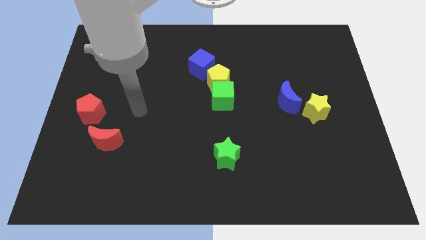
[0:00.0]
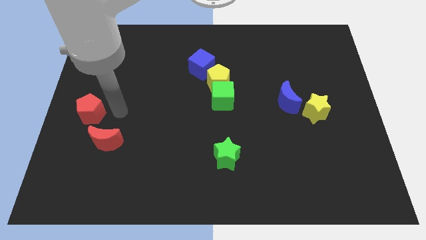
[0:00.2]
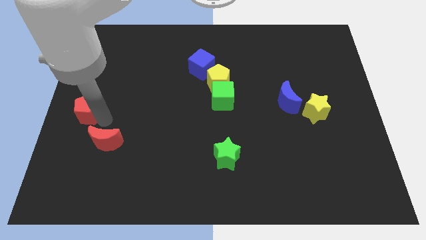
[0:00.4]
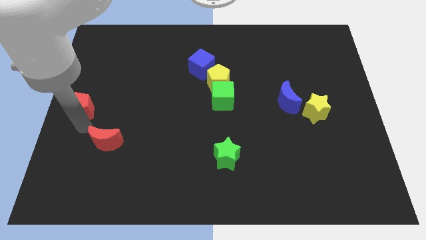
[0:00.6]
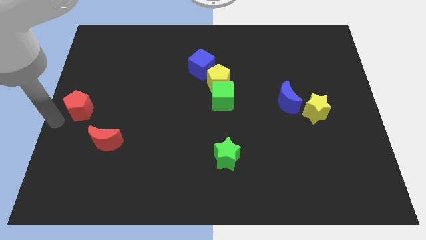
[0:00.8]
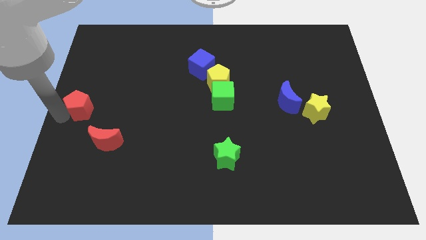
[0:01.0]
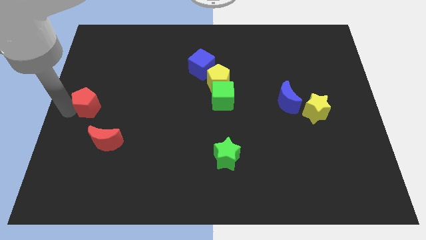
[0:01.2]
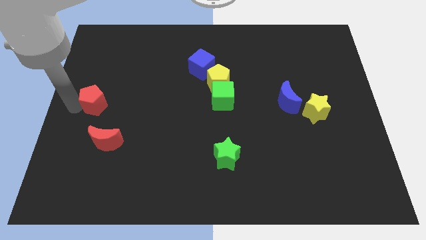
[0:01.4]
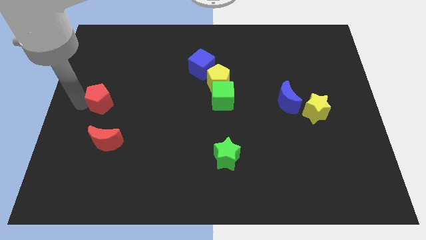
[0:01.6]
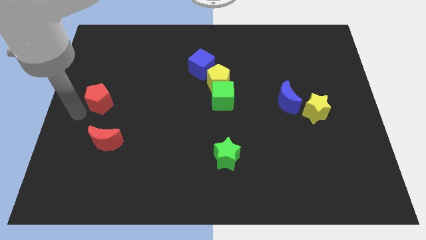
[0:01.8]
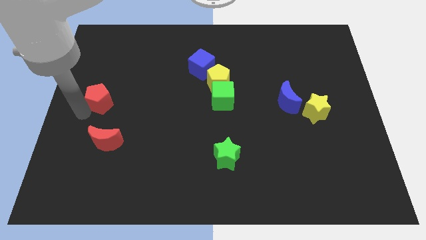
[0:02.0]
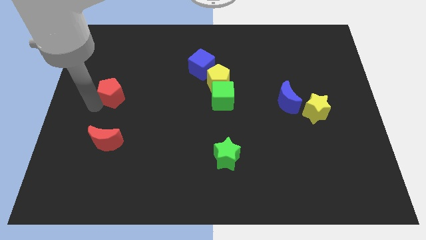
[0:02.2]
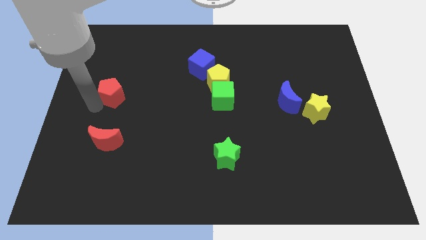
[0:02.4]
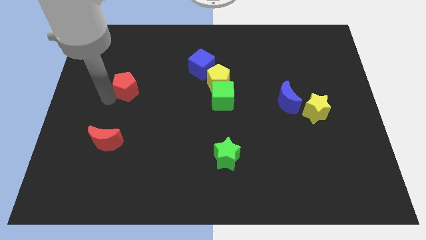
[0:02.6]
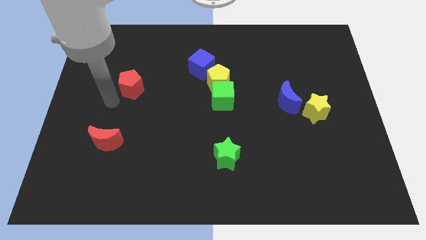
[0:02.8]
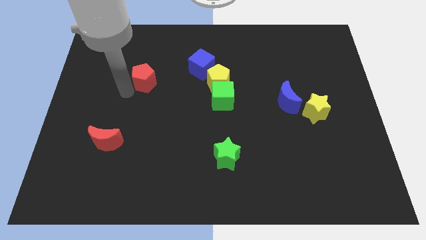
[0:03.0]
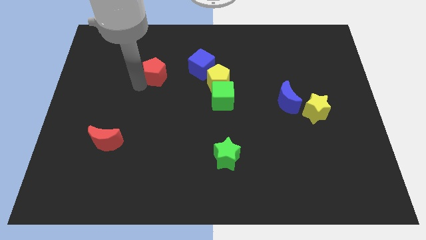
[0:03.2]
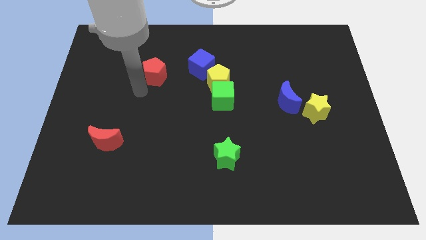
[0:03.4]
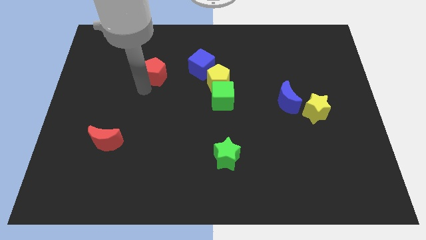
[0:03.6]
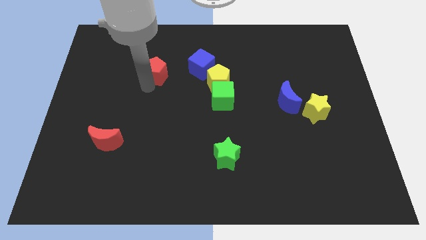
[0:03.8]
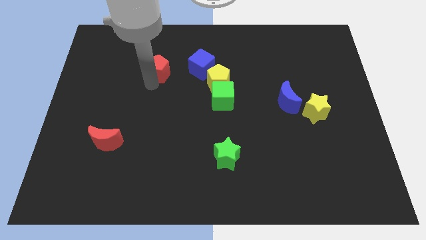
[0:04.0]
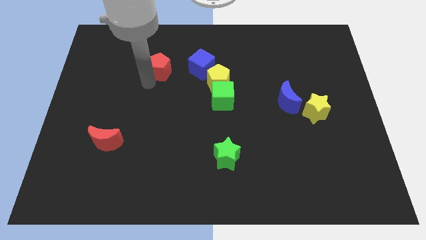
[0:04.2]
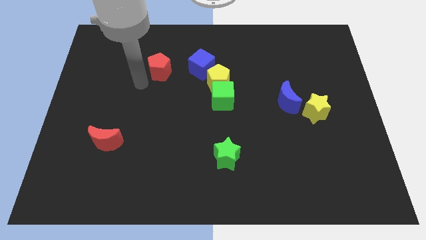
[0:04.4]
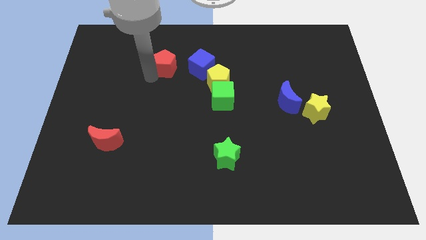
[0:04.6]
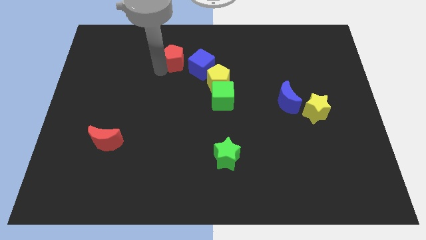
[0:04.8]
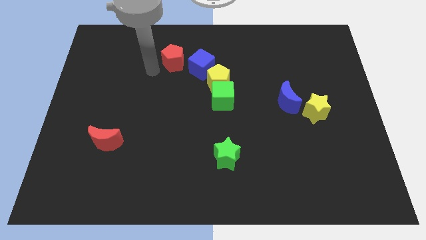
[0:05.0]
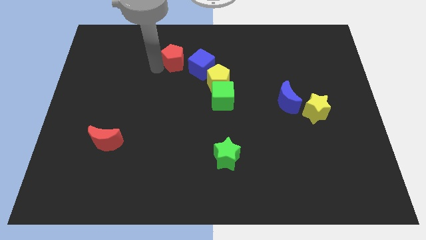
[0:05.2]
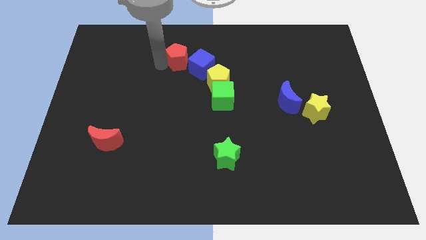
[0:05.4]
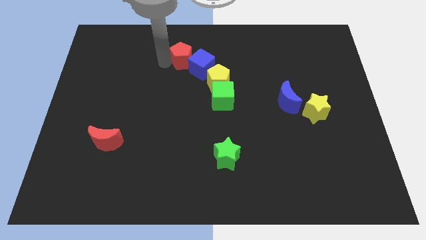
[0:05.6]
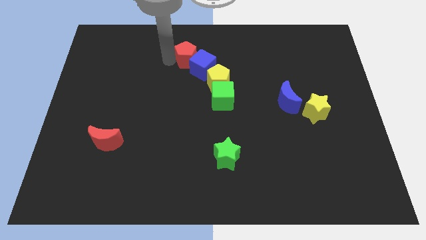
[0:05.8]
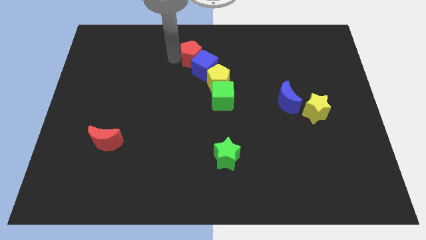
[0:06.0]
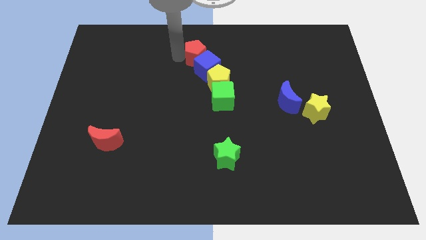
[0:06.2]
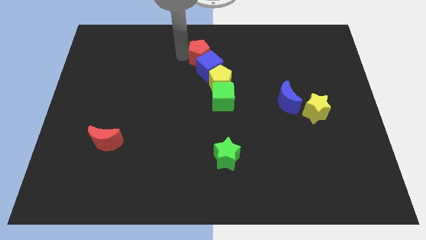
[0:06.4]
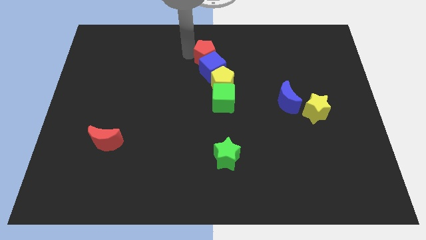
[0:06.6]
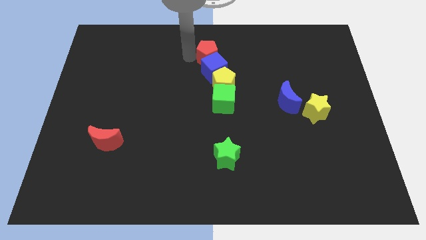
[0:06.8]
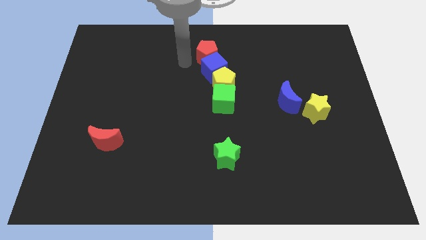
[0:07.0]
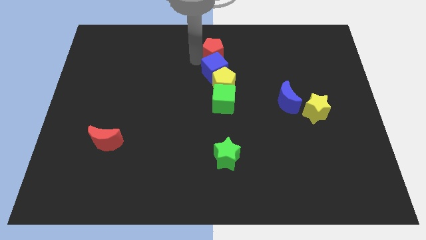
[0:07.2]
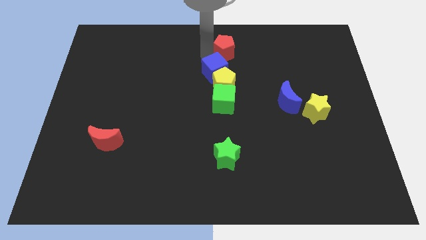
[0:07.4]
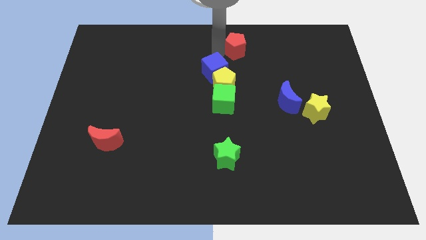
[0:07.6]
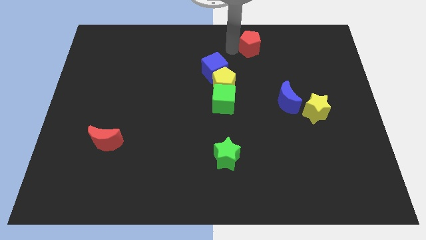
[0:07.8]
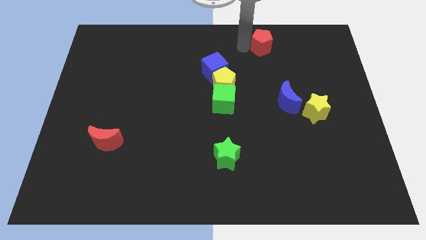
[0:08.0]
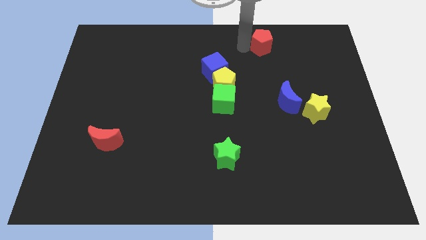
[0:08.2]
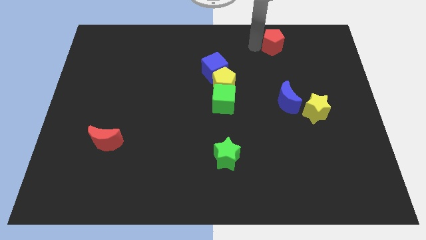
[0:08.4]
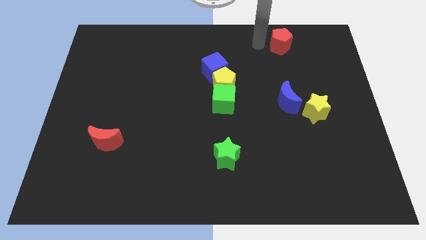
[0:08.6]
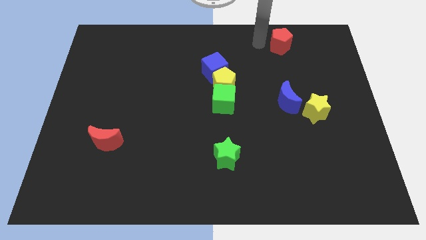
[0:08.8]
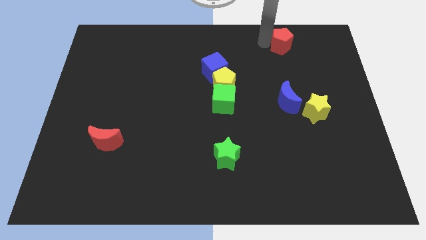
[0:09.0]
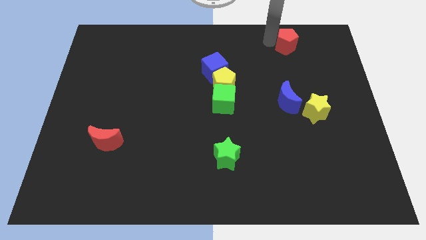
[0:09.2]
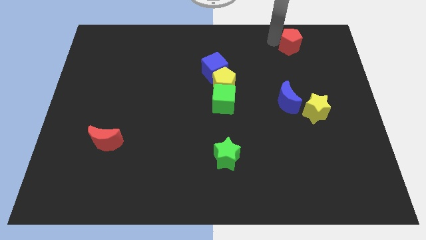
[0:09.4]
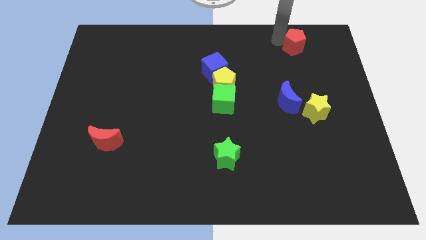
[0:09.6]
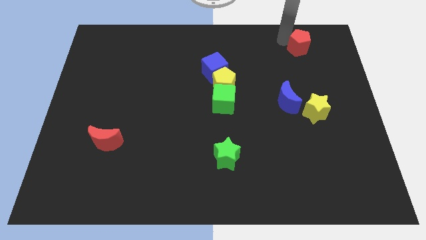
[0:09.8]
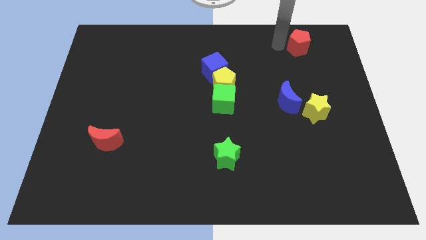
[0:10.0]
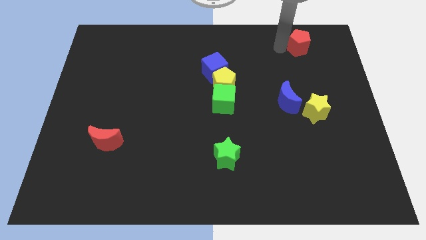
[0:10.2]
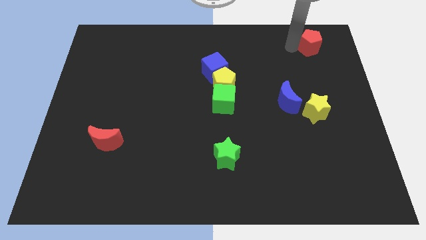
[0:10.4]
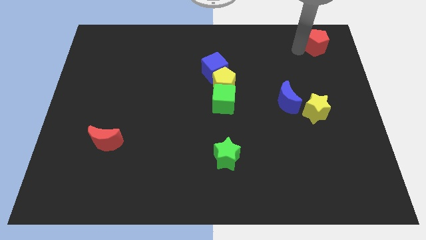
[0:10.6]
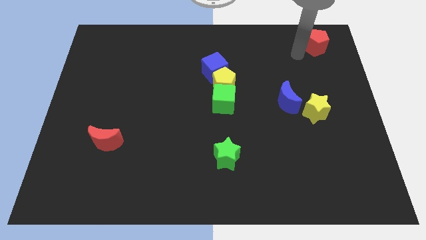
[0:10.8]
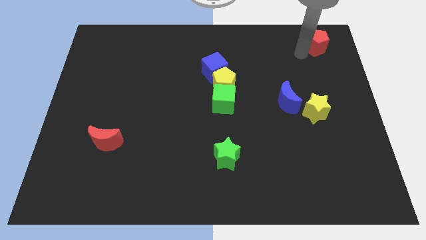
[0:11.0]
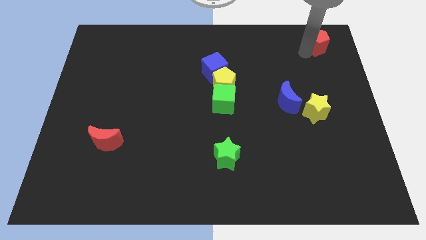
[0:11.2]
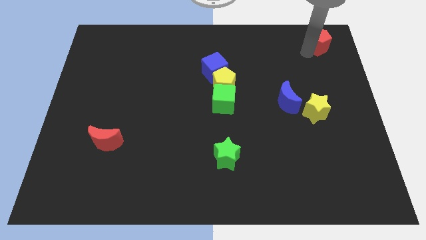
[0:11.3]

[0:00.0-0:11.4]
slide the red pentagon to the upper right corner

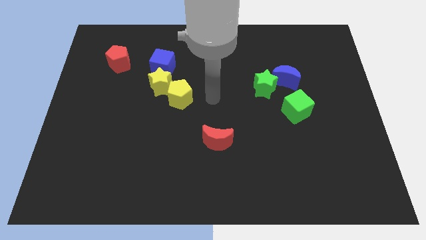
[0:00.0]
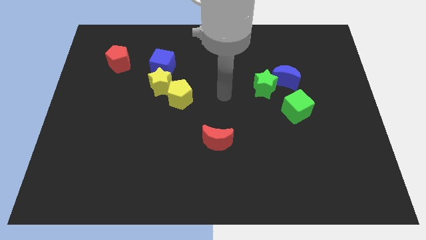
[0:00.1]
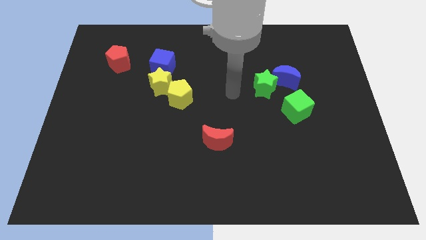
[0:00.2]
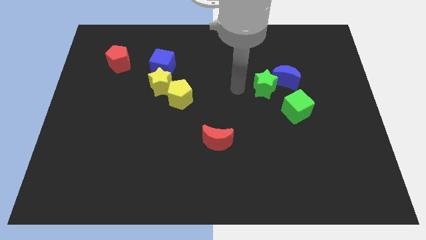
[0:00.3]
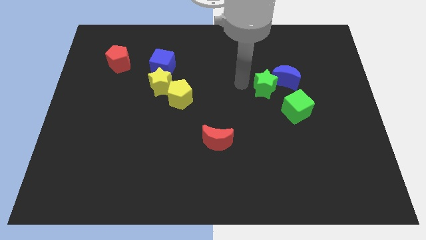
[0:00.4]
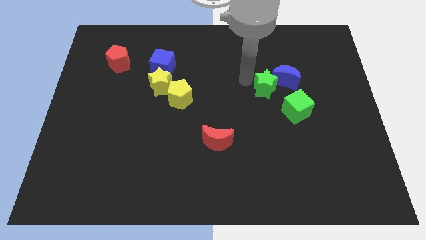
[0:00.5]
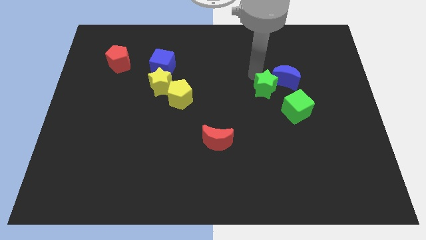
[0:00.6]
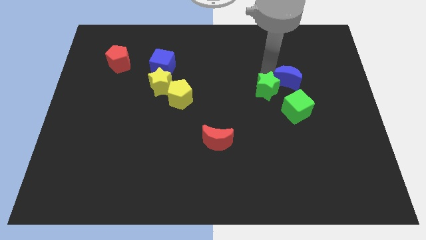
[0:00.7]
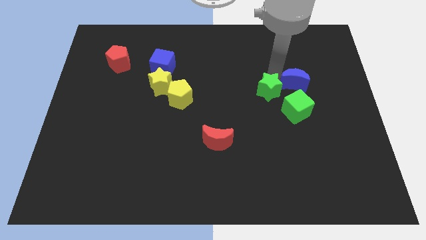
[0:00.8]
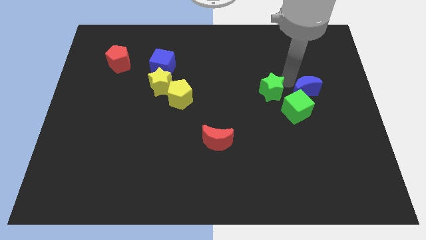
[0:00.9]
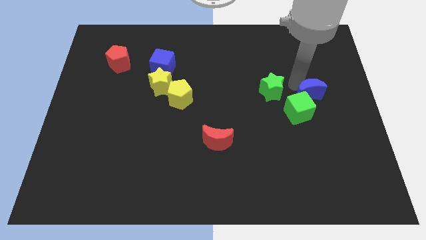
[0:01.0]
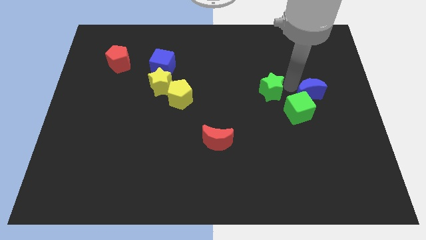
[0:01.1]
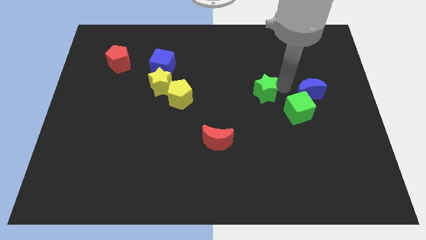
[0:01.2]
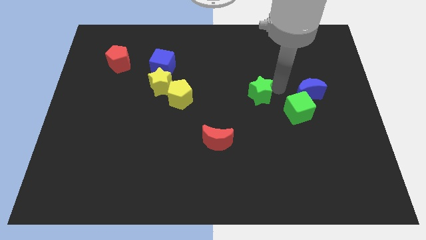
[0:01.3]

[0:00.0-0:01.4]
move the green star to the middle of the board
